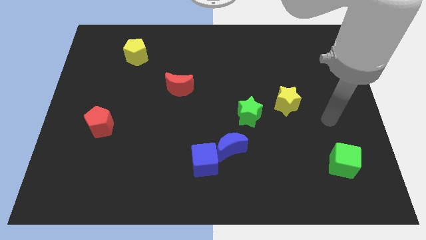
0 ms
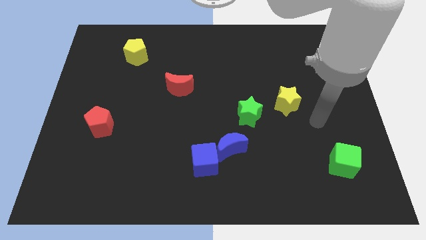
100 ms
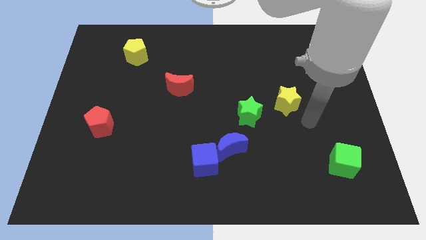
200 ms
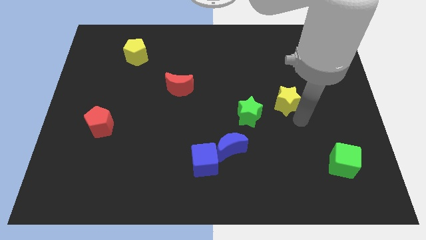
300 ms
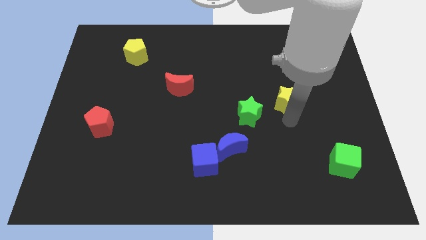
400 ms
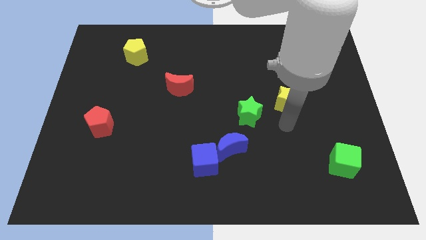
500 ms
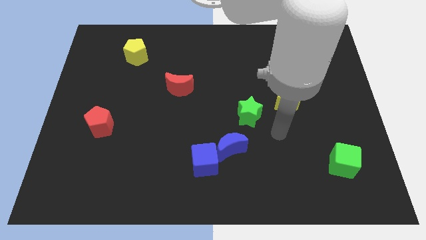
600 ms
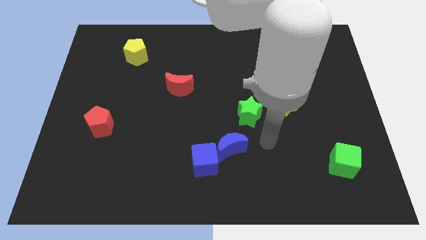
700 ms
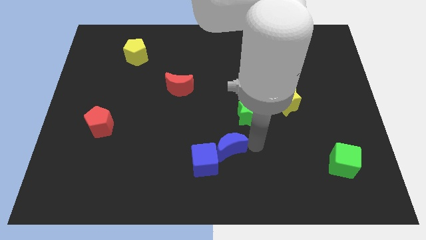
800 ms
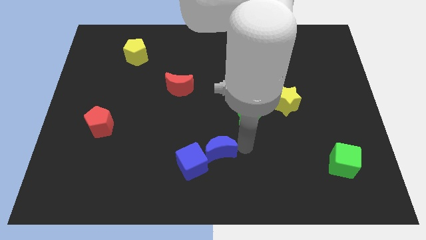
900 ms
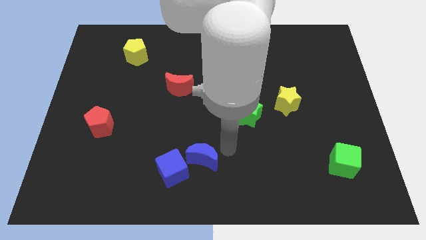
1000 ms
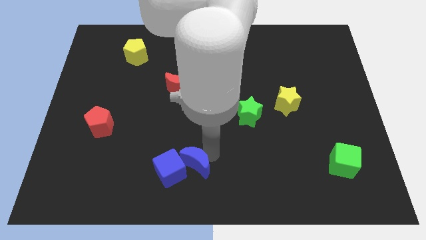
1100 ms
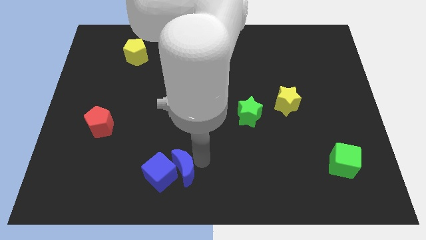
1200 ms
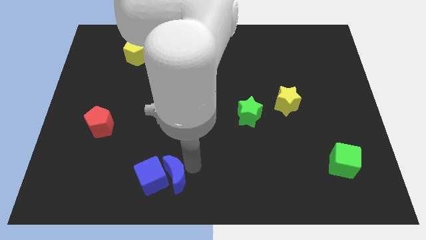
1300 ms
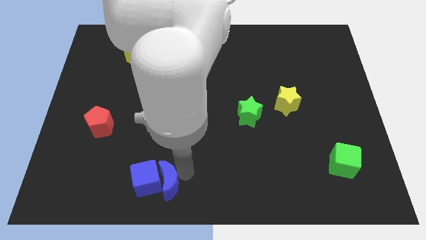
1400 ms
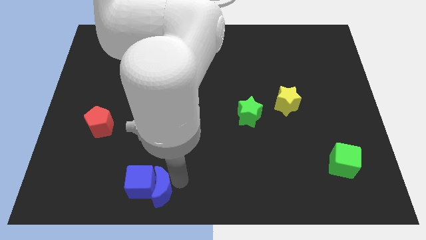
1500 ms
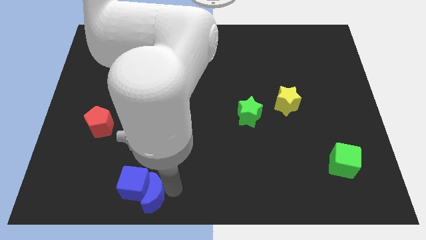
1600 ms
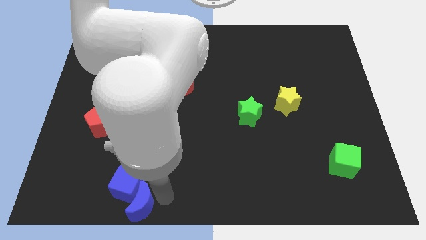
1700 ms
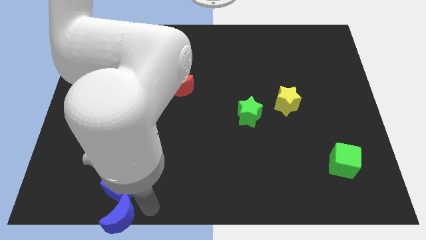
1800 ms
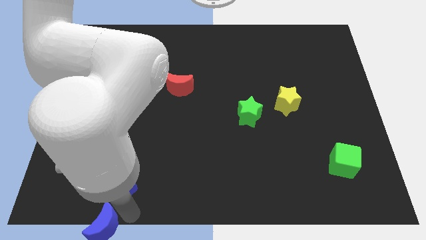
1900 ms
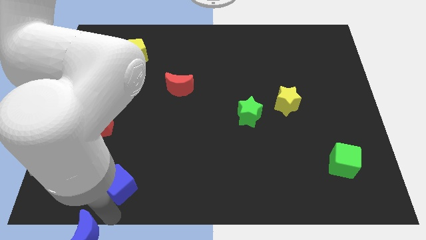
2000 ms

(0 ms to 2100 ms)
move the blue cube away from the blue moon

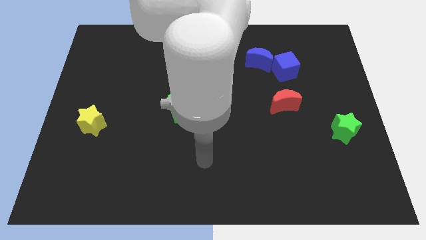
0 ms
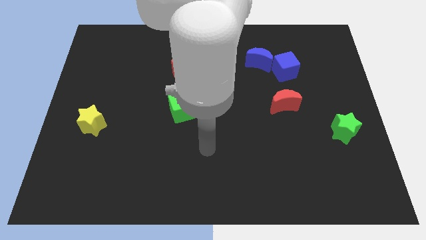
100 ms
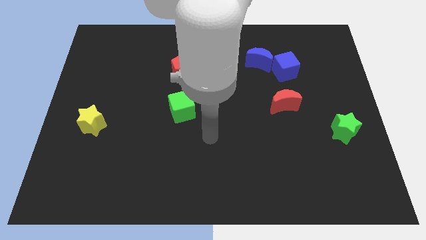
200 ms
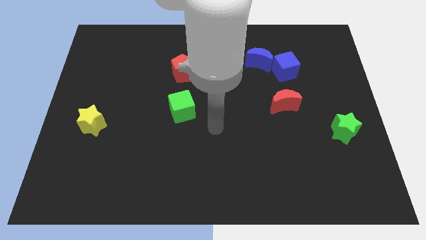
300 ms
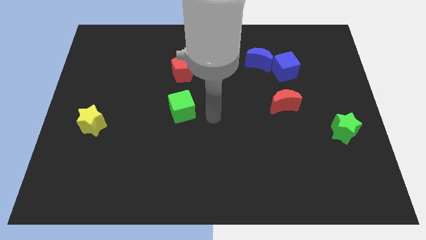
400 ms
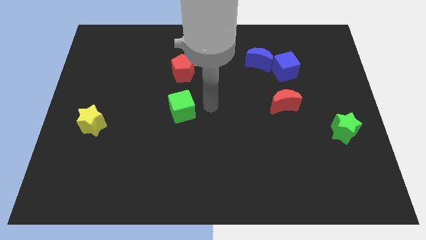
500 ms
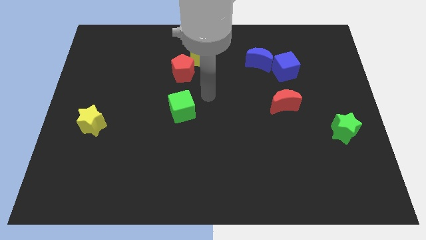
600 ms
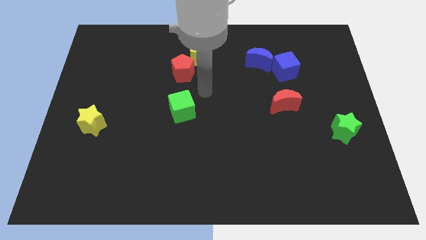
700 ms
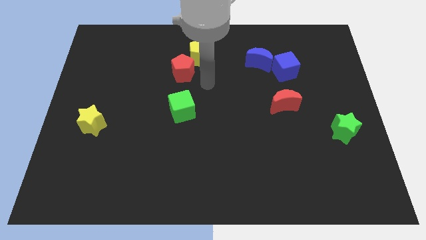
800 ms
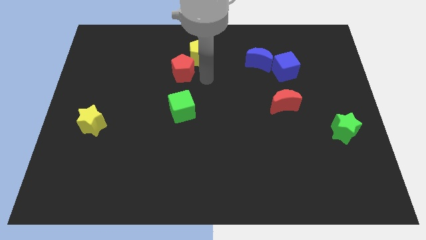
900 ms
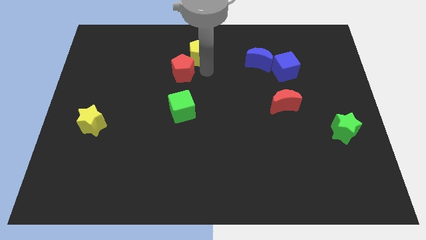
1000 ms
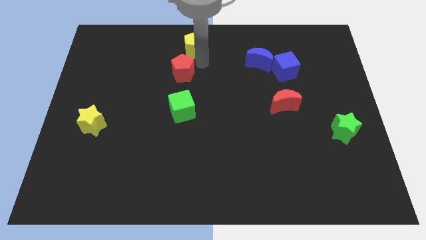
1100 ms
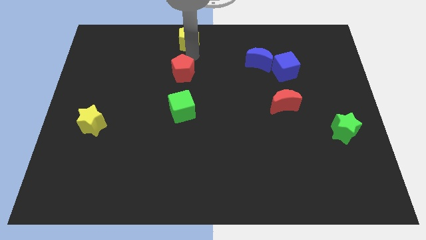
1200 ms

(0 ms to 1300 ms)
move the red pentagon away from the yellow pentagon

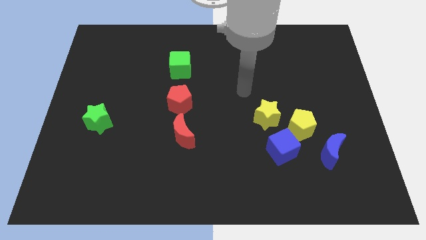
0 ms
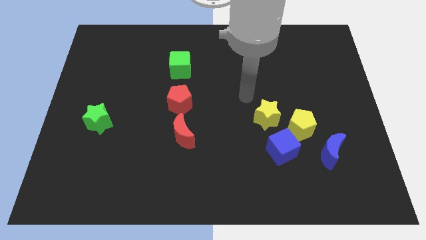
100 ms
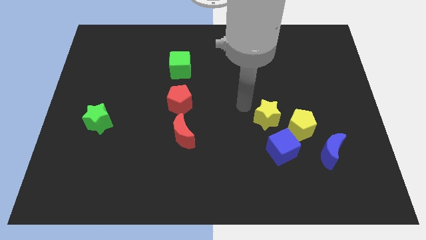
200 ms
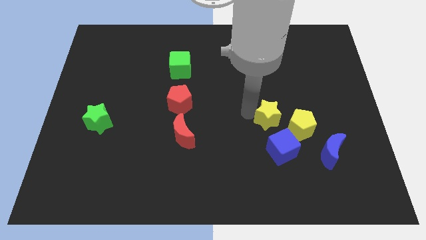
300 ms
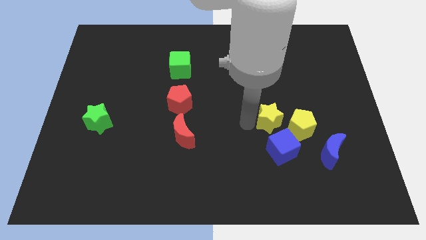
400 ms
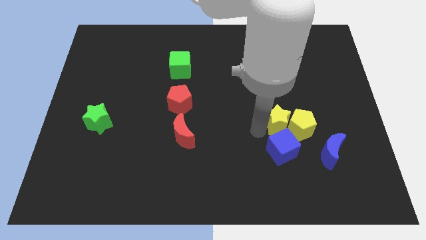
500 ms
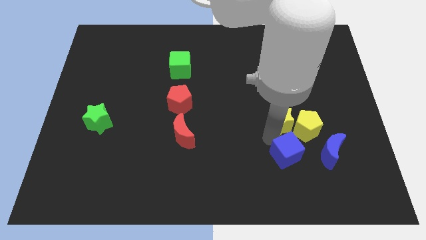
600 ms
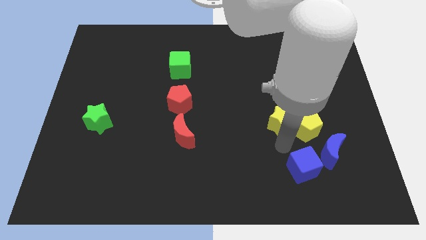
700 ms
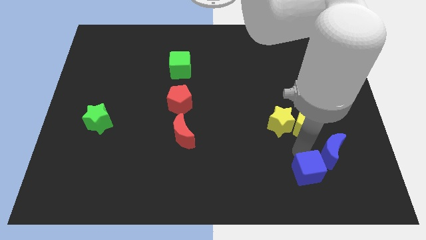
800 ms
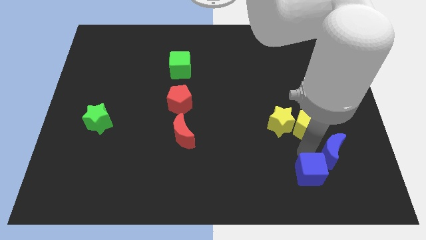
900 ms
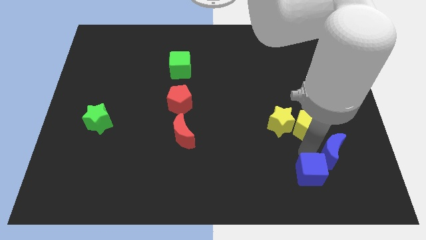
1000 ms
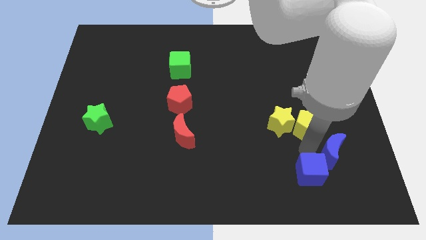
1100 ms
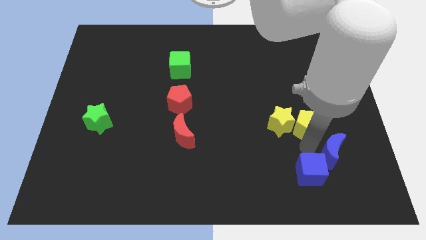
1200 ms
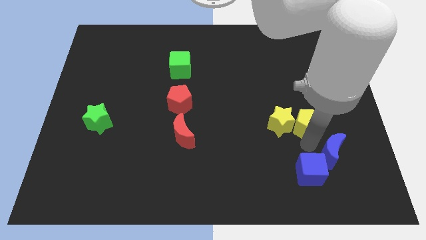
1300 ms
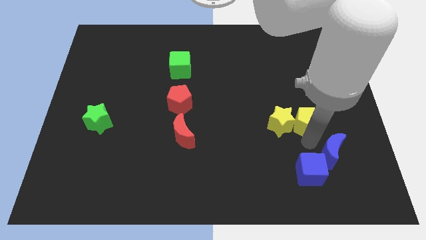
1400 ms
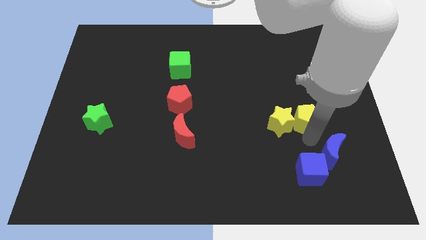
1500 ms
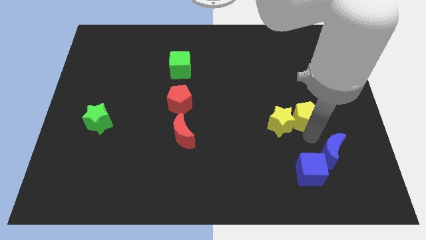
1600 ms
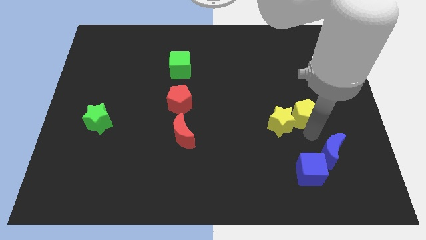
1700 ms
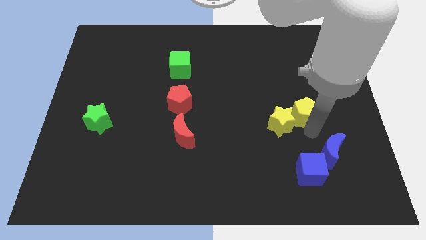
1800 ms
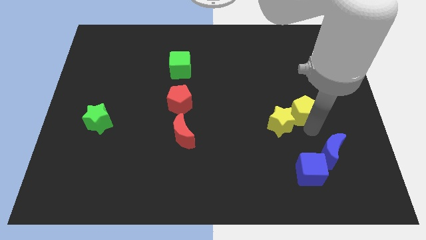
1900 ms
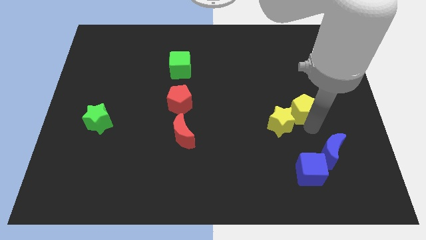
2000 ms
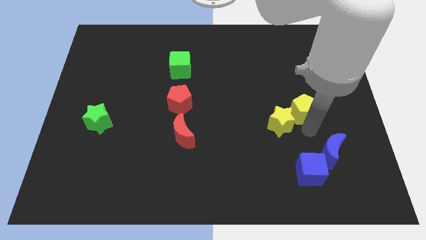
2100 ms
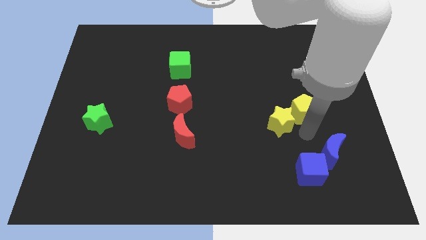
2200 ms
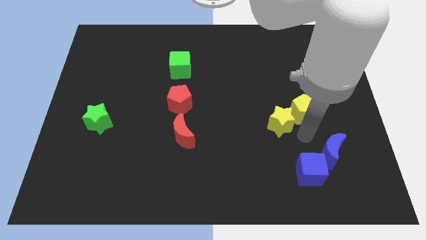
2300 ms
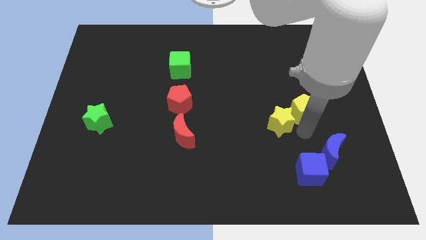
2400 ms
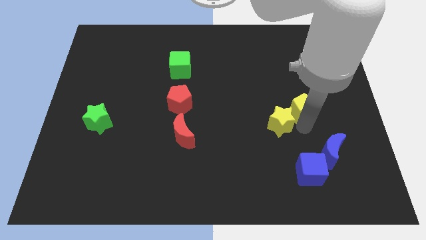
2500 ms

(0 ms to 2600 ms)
pull the yellow pentagon apart from the blue cube, yellow star, and blue moon

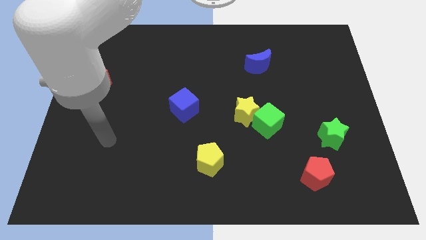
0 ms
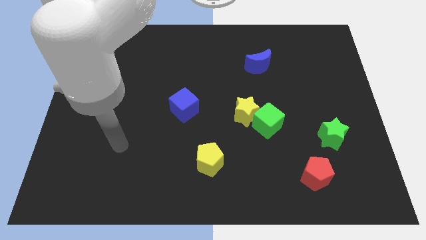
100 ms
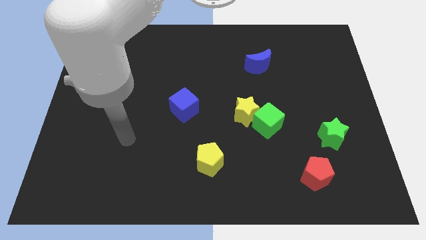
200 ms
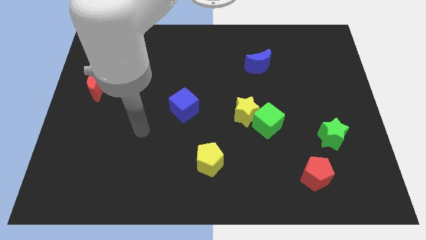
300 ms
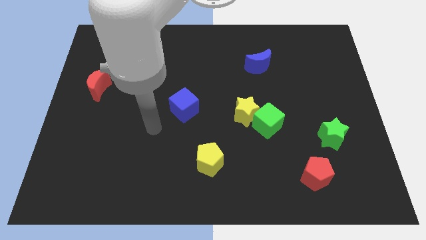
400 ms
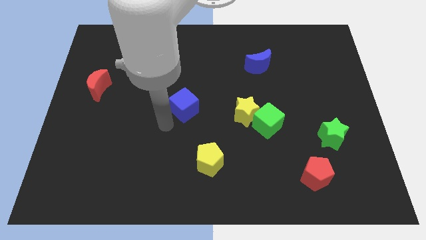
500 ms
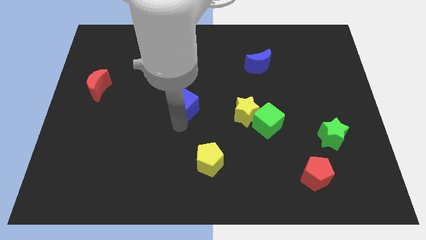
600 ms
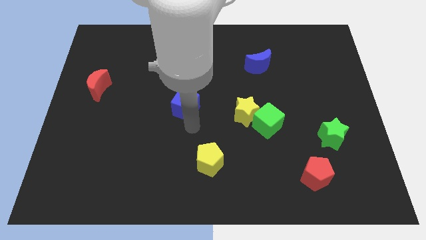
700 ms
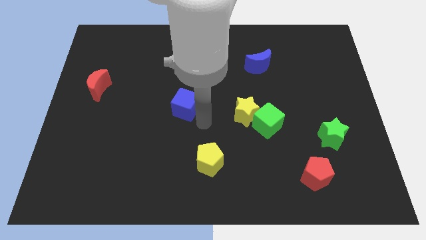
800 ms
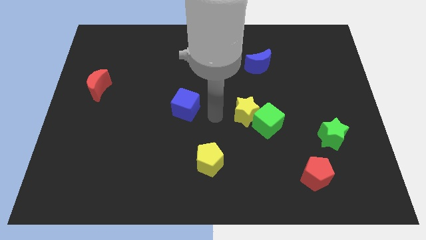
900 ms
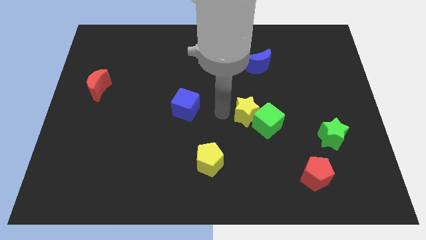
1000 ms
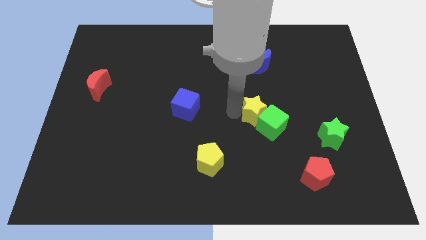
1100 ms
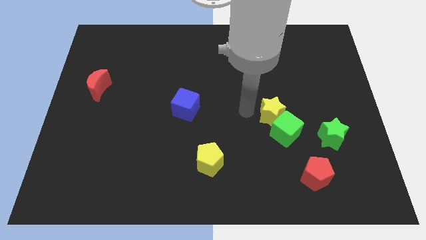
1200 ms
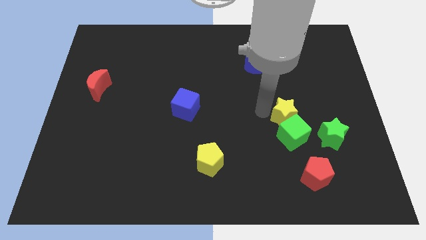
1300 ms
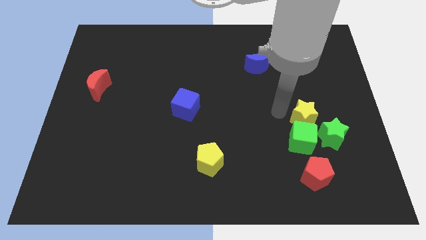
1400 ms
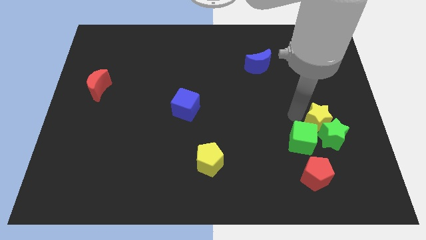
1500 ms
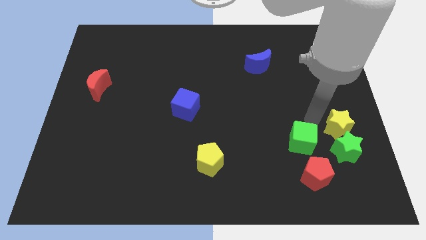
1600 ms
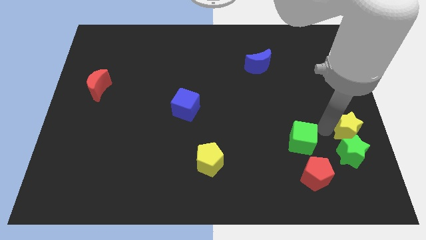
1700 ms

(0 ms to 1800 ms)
move the green cube away from the yellow star

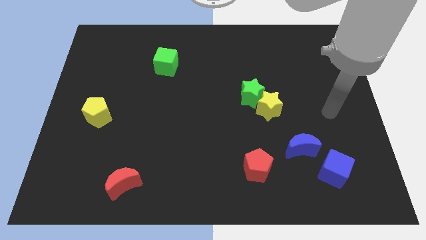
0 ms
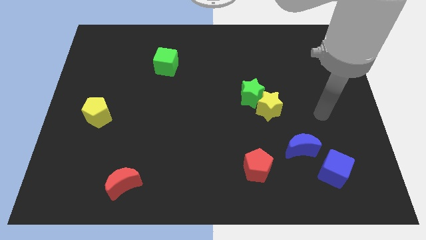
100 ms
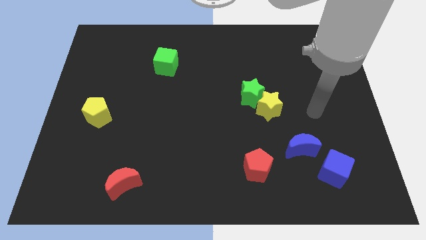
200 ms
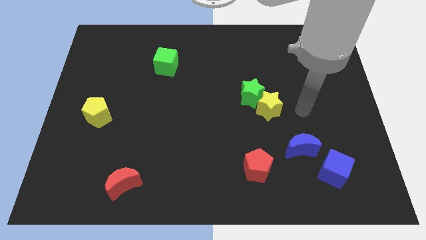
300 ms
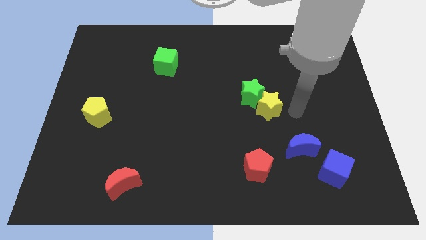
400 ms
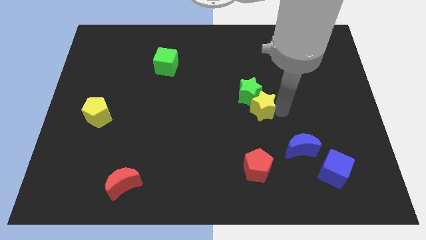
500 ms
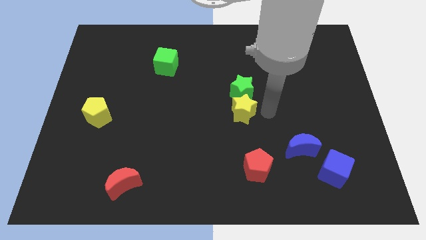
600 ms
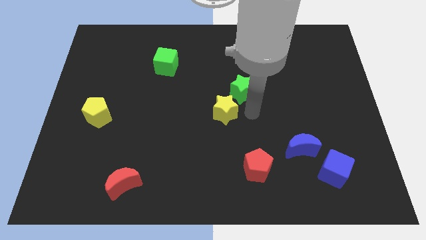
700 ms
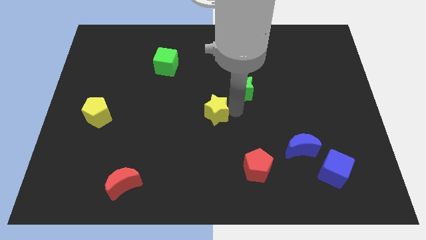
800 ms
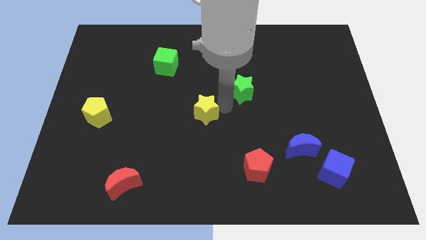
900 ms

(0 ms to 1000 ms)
separate the green star from the yellow star

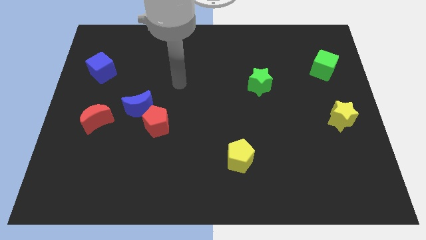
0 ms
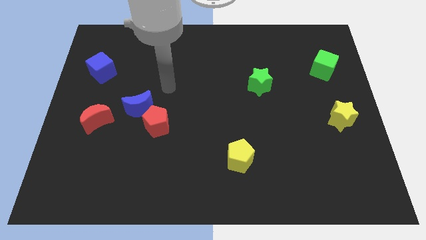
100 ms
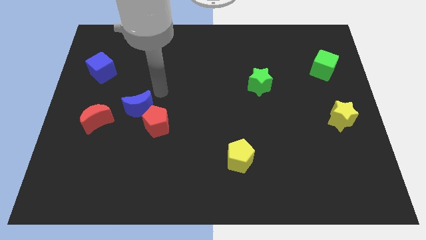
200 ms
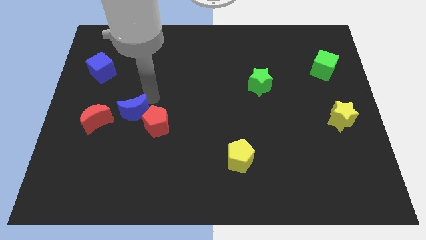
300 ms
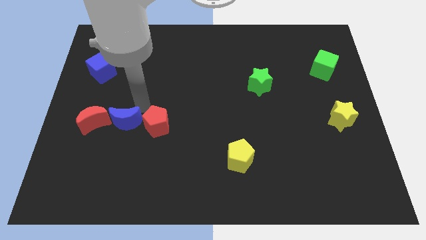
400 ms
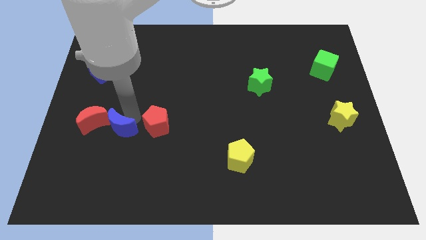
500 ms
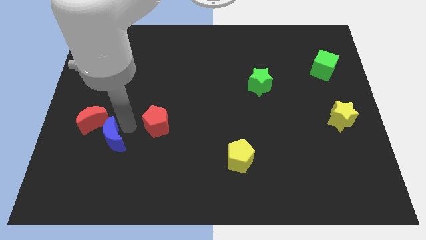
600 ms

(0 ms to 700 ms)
pull the red pentagon apart from the blue moon
